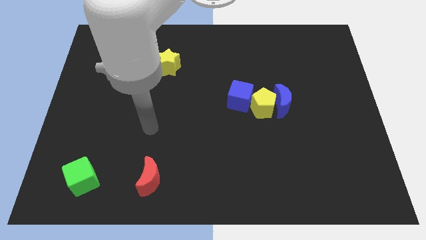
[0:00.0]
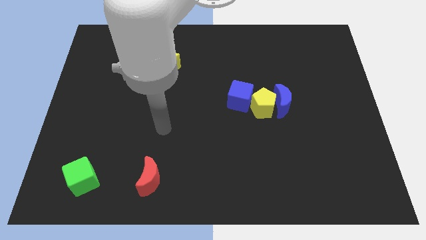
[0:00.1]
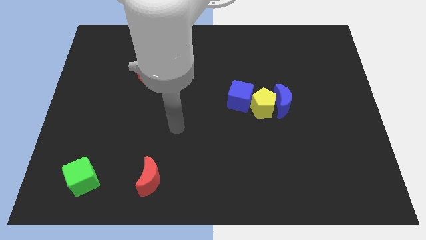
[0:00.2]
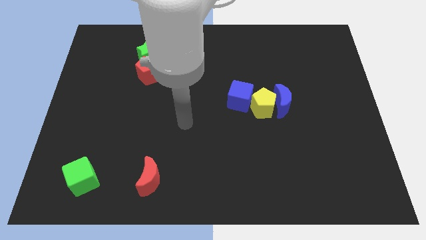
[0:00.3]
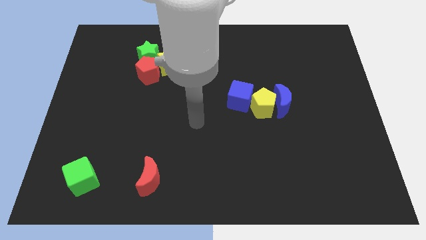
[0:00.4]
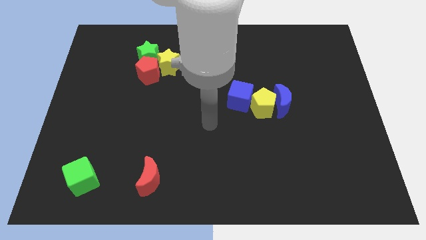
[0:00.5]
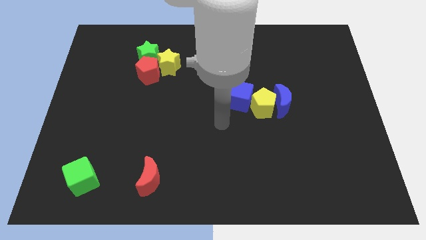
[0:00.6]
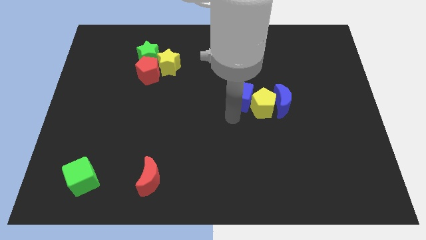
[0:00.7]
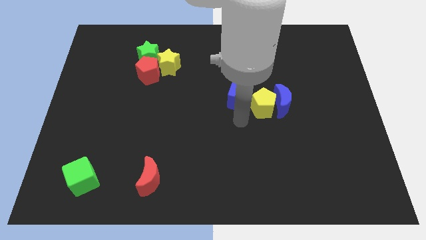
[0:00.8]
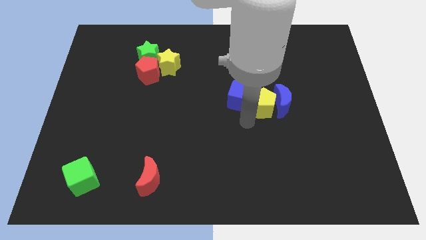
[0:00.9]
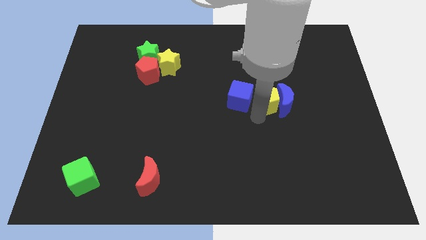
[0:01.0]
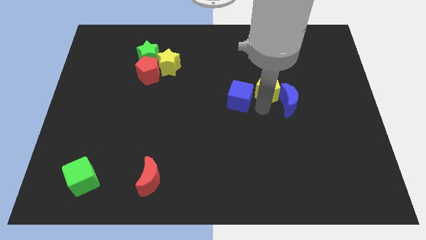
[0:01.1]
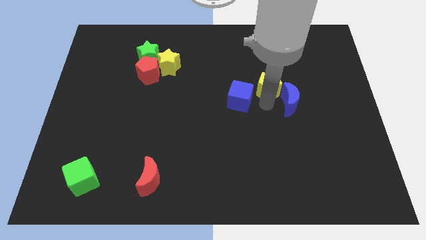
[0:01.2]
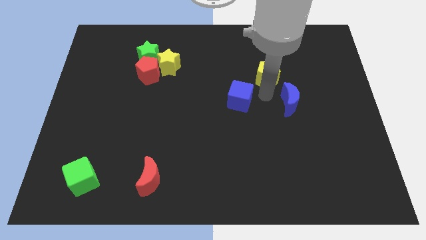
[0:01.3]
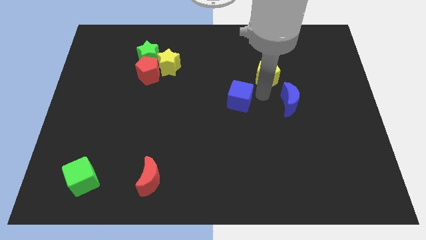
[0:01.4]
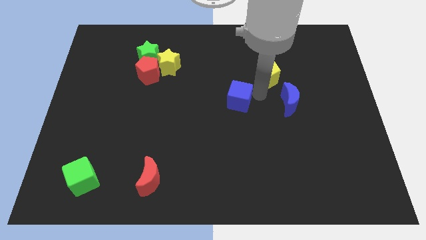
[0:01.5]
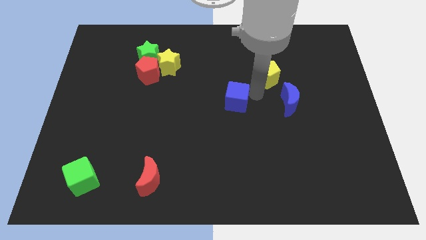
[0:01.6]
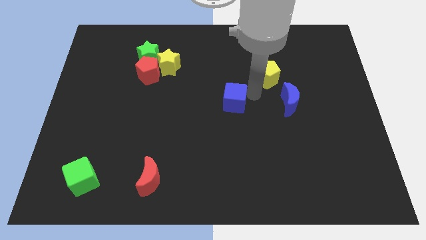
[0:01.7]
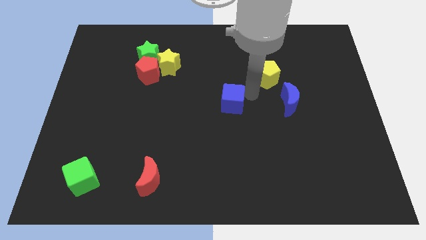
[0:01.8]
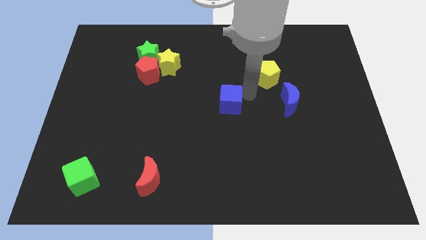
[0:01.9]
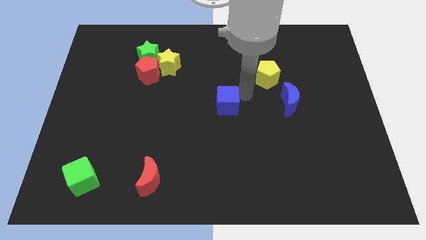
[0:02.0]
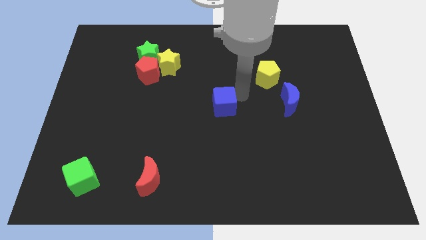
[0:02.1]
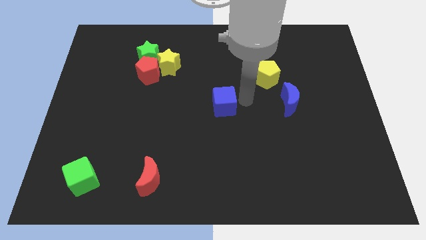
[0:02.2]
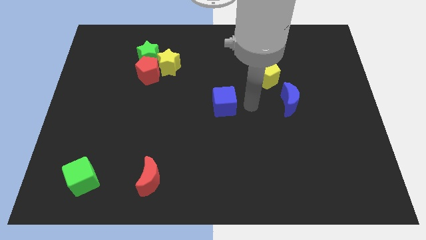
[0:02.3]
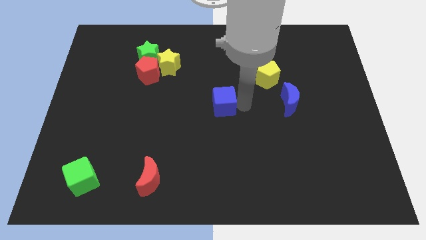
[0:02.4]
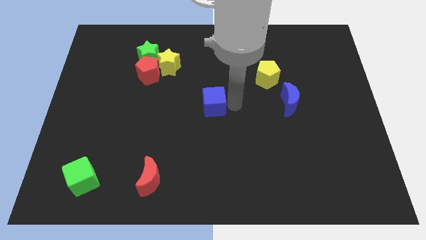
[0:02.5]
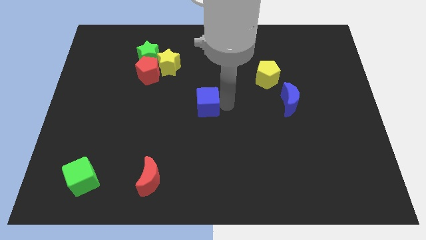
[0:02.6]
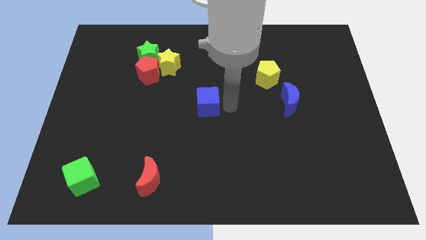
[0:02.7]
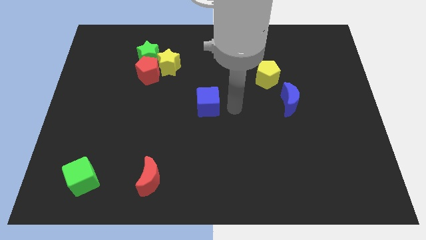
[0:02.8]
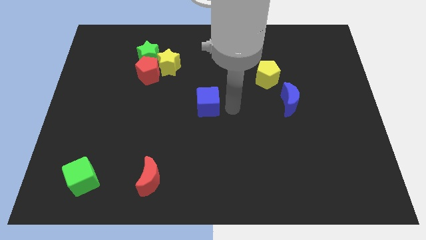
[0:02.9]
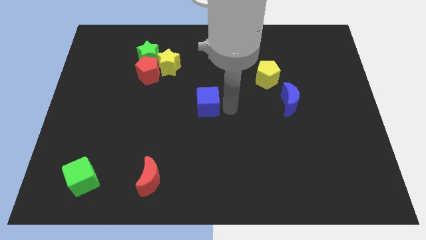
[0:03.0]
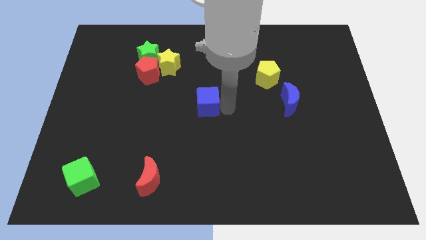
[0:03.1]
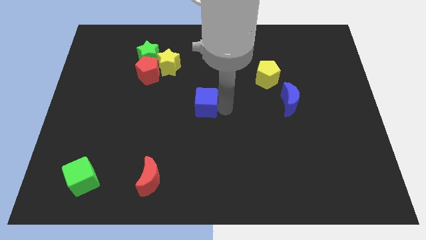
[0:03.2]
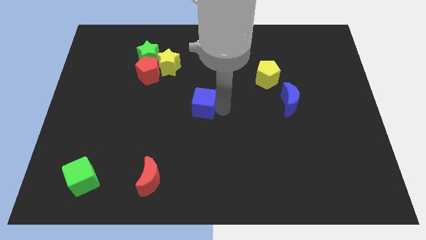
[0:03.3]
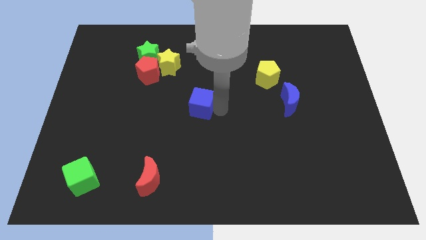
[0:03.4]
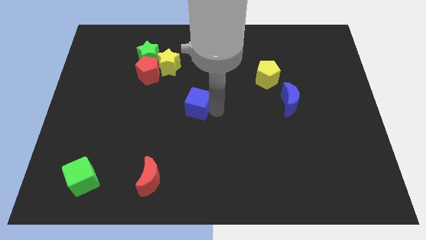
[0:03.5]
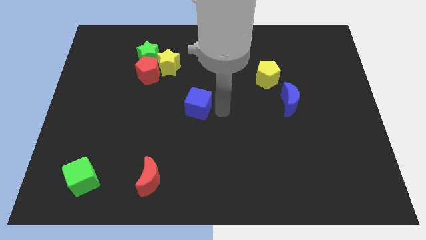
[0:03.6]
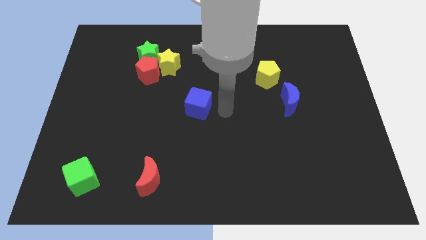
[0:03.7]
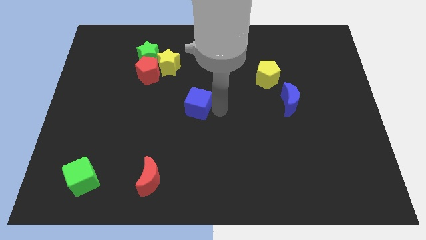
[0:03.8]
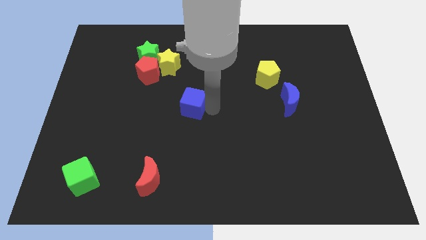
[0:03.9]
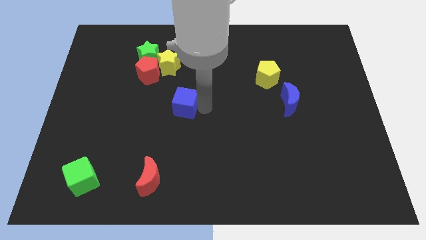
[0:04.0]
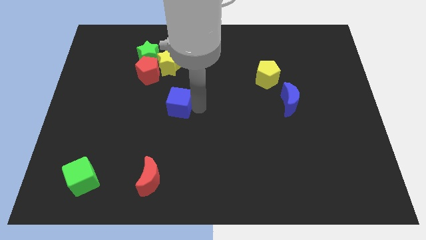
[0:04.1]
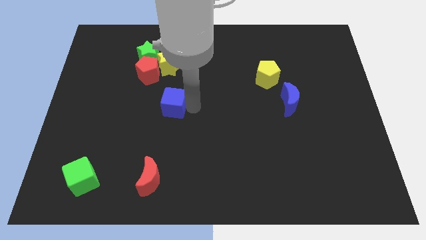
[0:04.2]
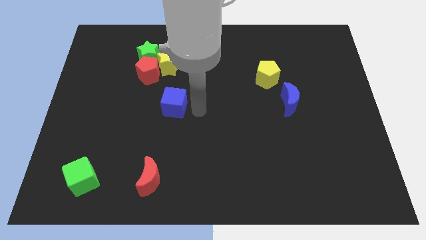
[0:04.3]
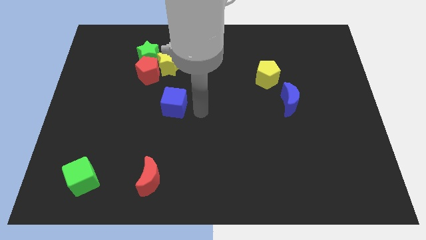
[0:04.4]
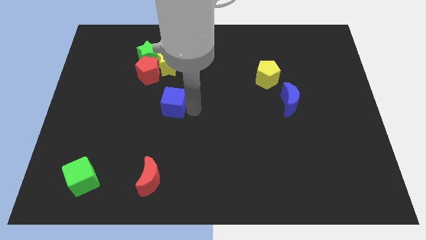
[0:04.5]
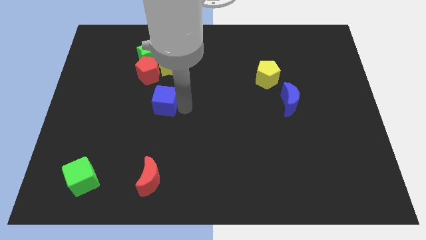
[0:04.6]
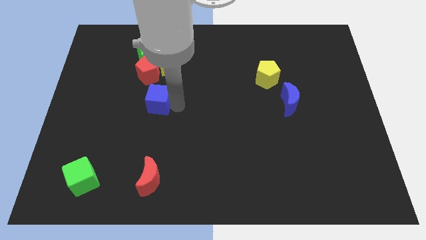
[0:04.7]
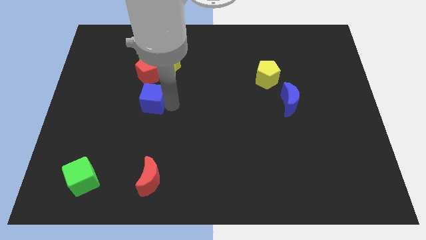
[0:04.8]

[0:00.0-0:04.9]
push the blue cube left

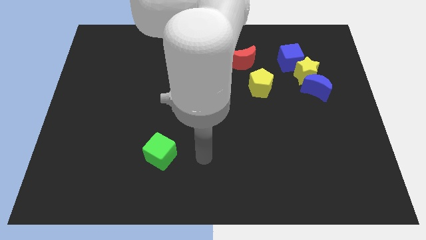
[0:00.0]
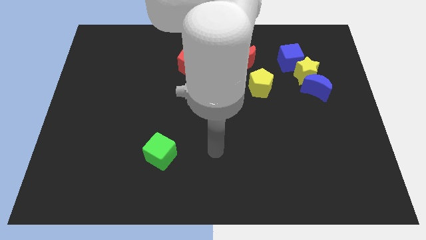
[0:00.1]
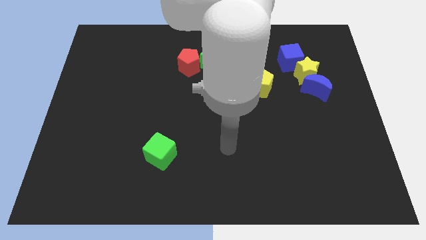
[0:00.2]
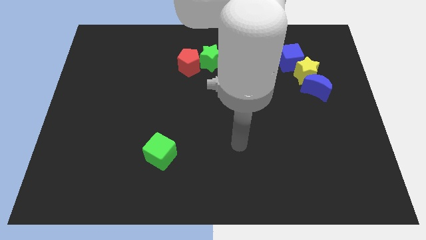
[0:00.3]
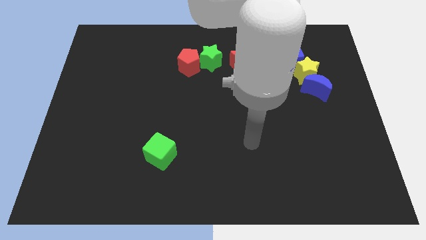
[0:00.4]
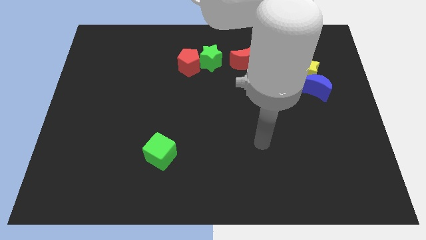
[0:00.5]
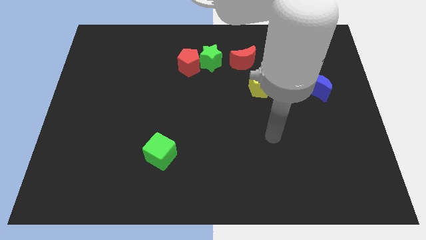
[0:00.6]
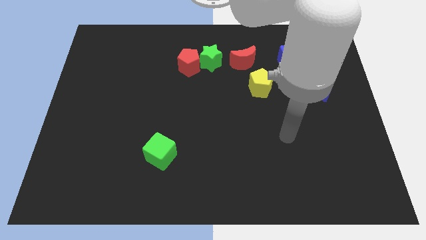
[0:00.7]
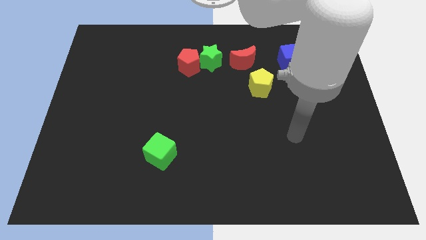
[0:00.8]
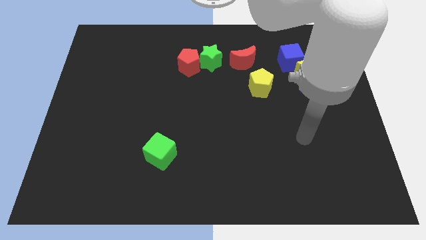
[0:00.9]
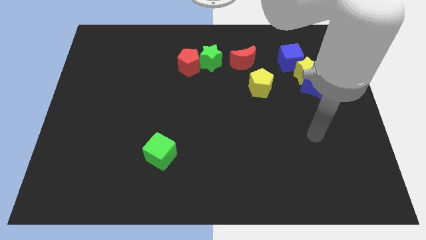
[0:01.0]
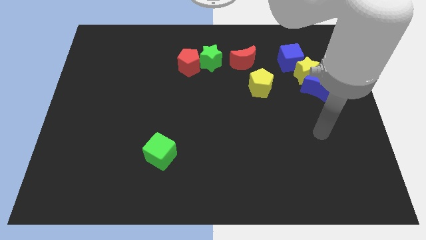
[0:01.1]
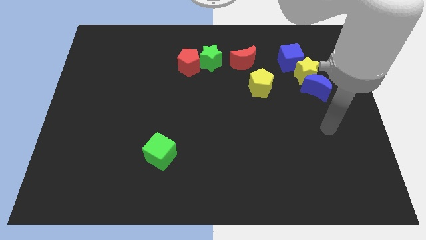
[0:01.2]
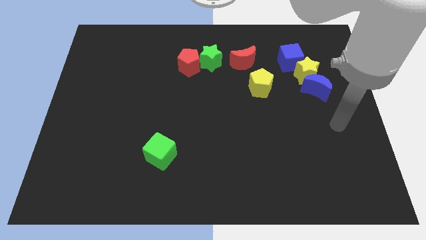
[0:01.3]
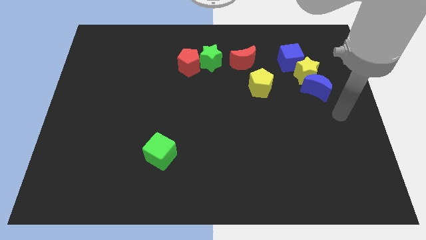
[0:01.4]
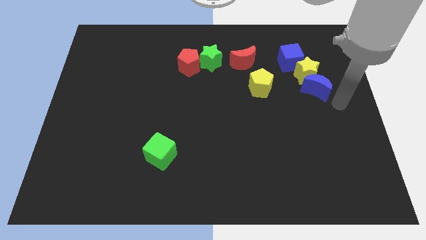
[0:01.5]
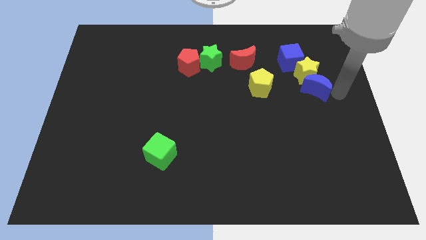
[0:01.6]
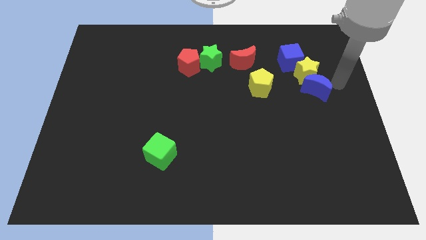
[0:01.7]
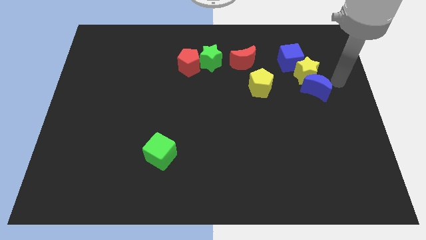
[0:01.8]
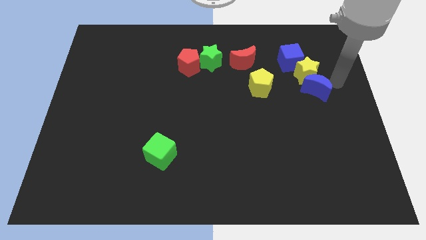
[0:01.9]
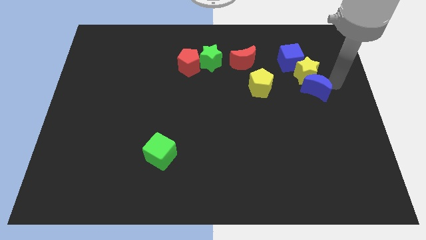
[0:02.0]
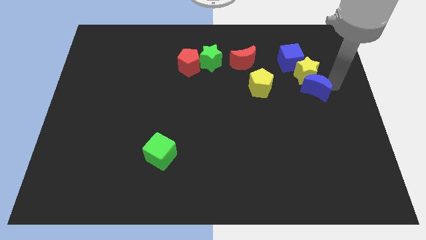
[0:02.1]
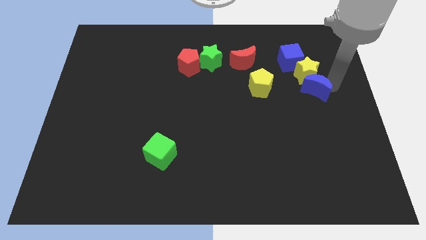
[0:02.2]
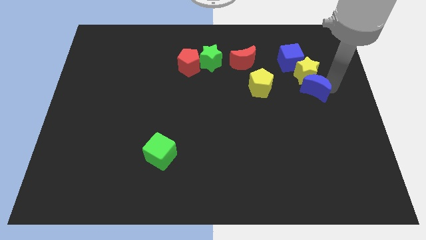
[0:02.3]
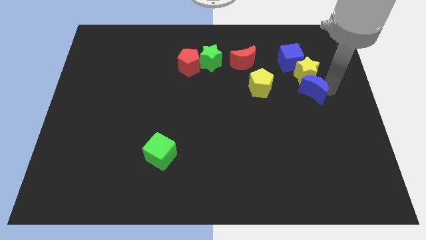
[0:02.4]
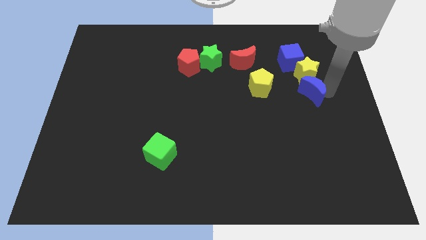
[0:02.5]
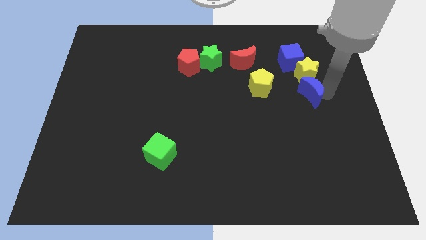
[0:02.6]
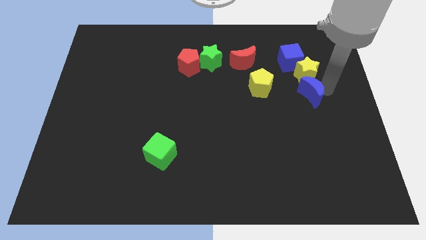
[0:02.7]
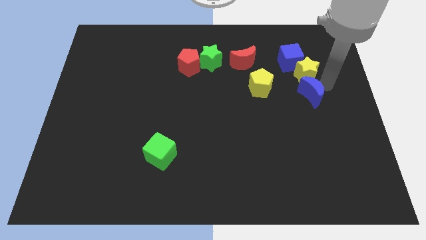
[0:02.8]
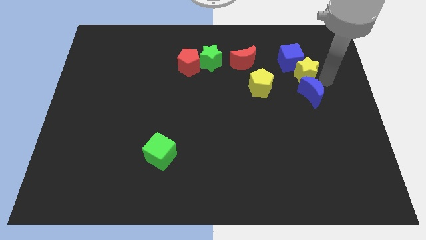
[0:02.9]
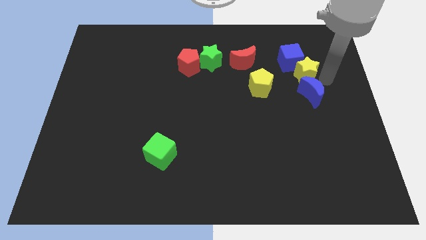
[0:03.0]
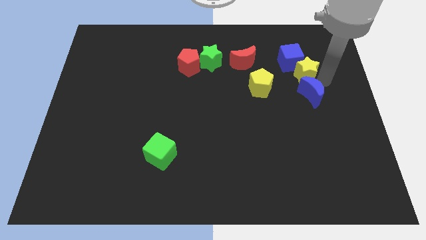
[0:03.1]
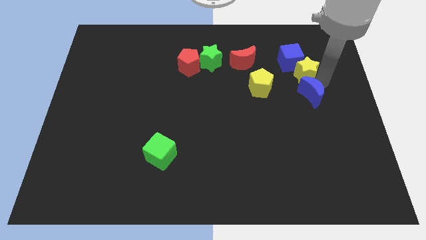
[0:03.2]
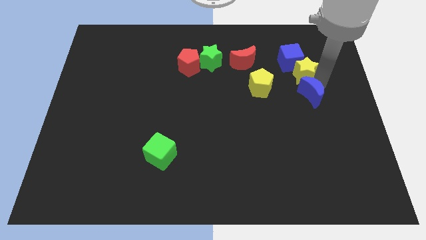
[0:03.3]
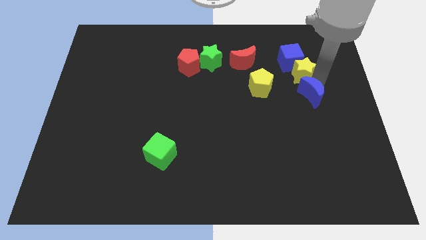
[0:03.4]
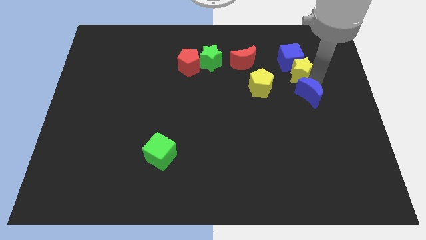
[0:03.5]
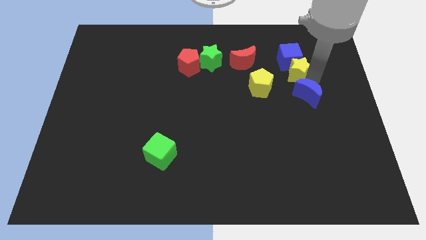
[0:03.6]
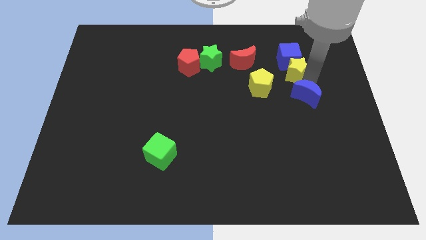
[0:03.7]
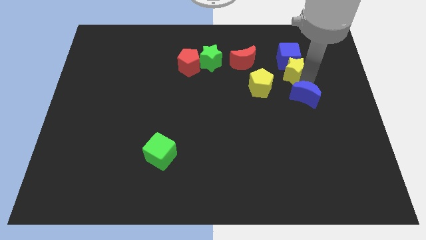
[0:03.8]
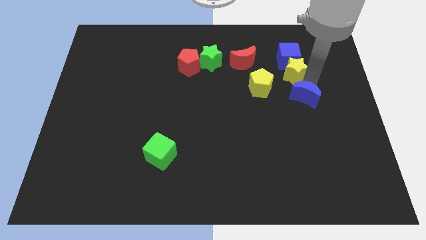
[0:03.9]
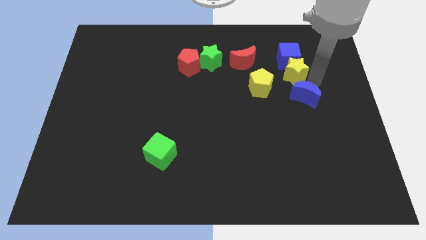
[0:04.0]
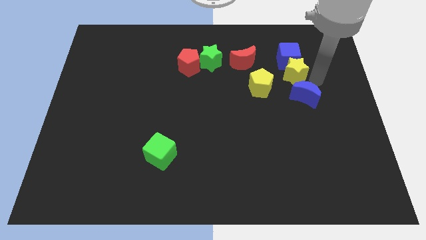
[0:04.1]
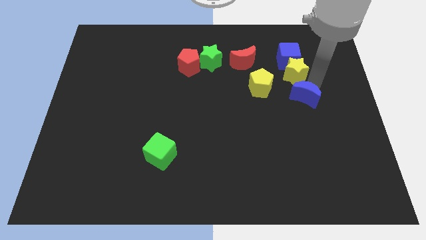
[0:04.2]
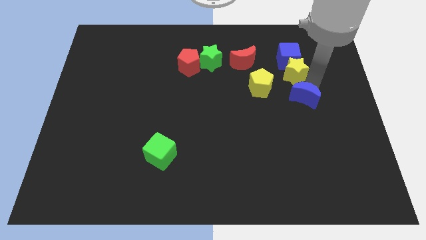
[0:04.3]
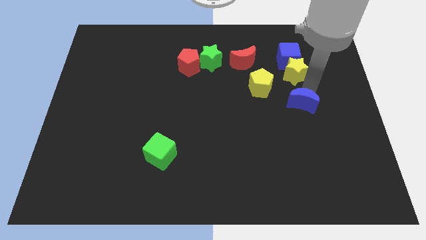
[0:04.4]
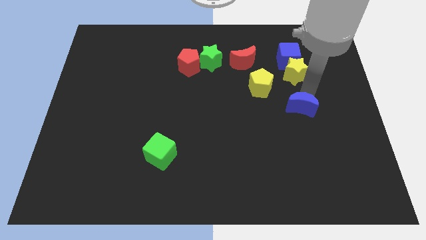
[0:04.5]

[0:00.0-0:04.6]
slide the blue moon diagonally down and to the left a little
